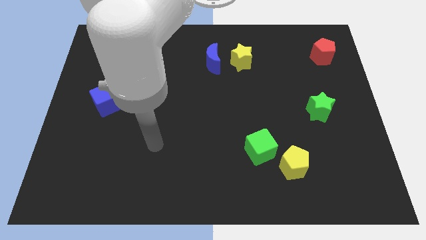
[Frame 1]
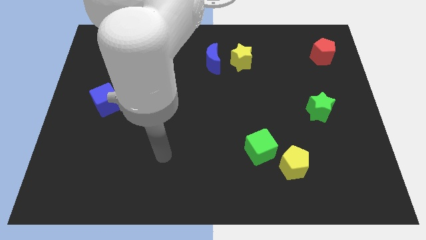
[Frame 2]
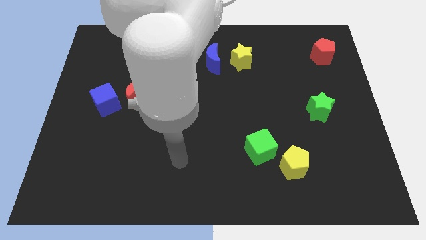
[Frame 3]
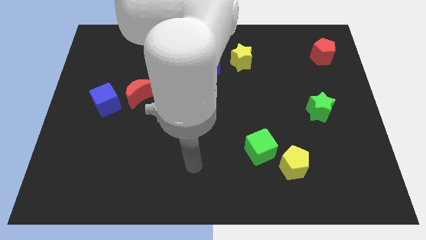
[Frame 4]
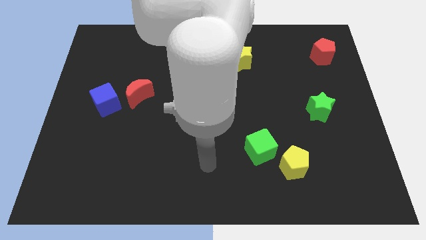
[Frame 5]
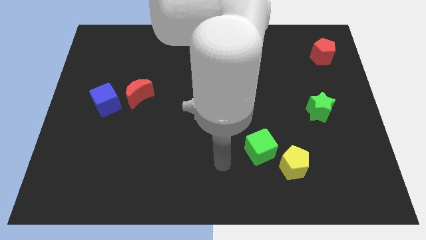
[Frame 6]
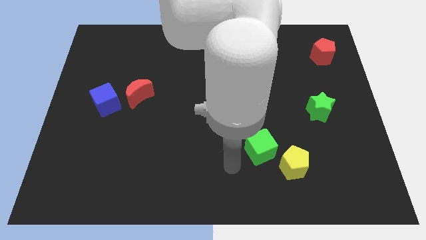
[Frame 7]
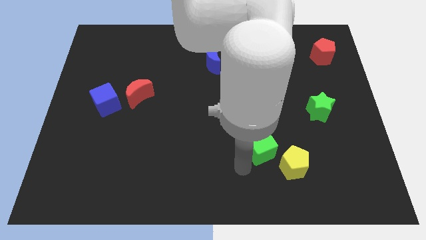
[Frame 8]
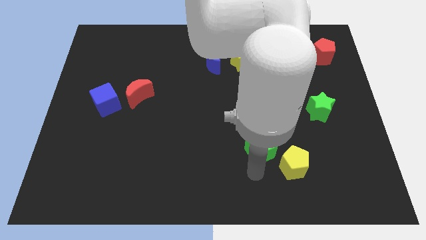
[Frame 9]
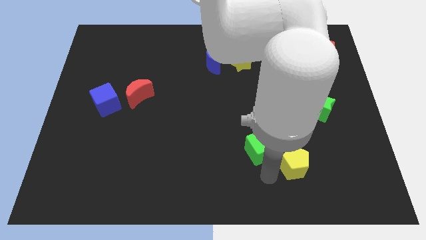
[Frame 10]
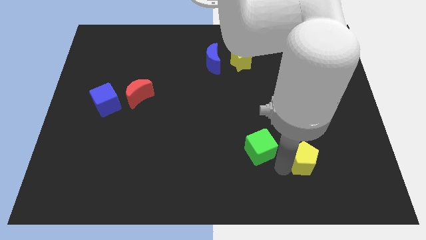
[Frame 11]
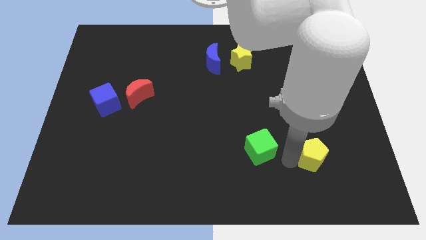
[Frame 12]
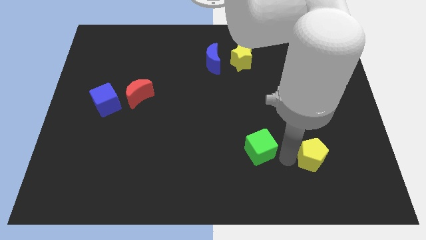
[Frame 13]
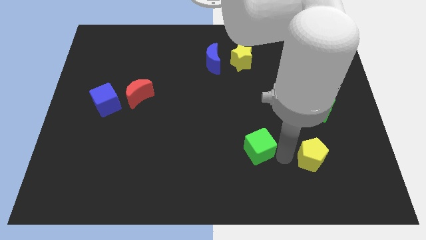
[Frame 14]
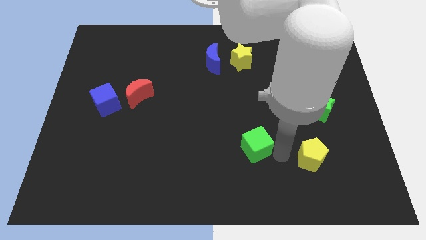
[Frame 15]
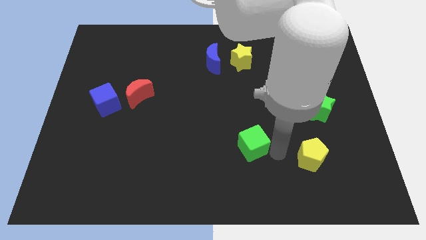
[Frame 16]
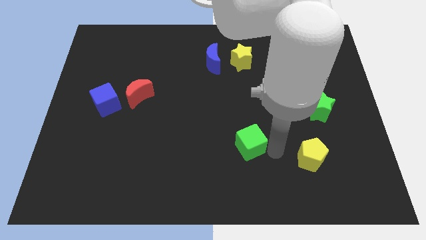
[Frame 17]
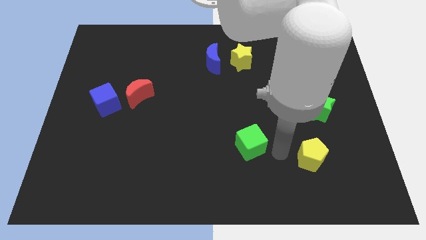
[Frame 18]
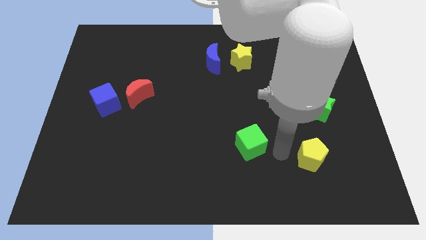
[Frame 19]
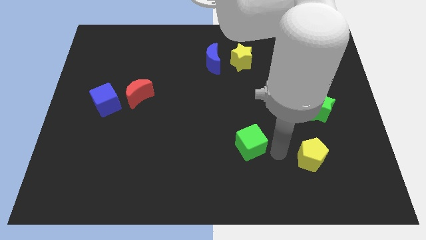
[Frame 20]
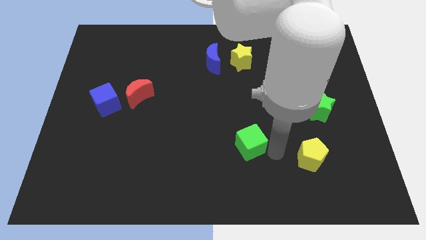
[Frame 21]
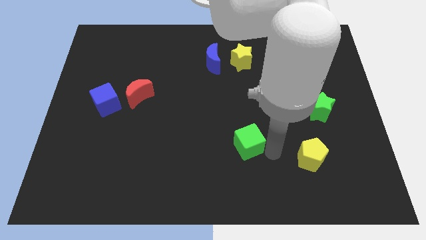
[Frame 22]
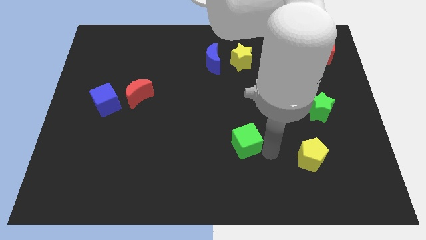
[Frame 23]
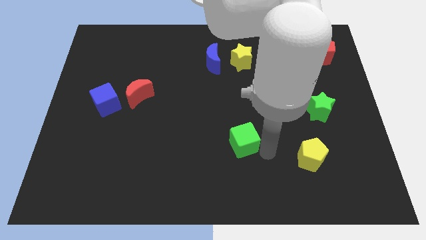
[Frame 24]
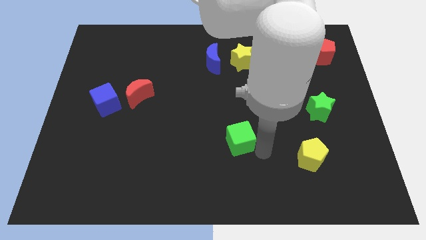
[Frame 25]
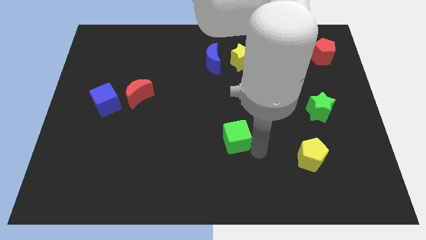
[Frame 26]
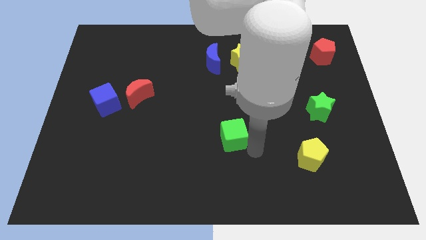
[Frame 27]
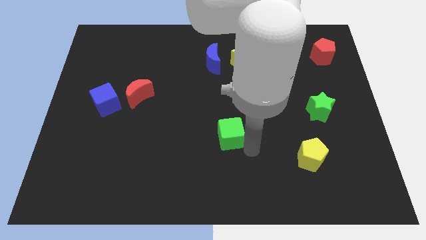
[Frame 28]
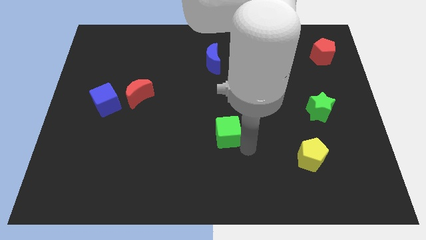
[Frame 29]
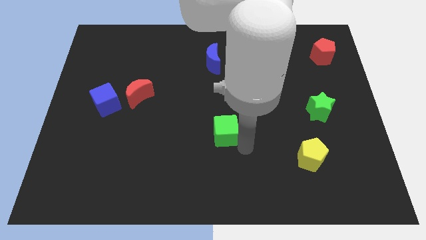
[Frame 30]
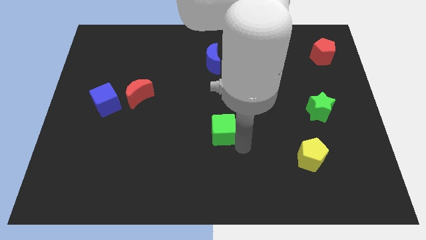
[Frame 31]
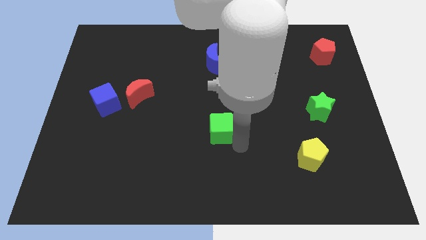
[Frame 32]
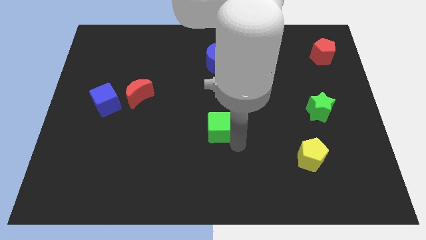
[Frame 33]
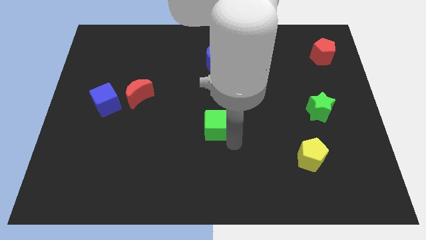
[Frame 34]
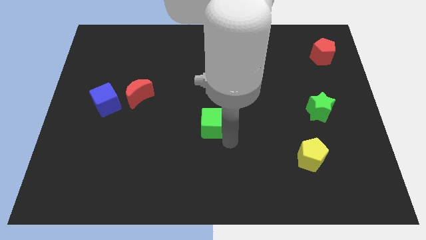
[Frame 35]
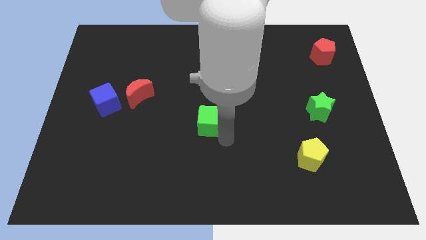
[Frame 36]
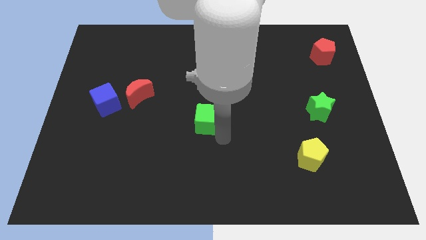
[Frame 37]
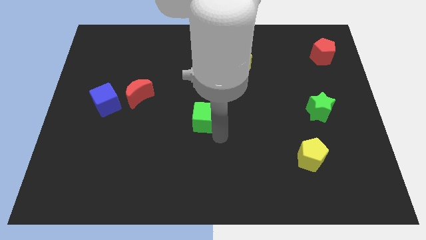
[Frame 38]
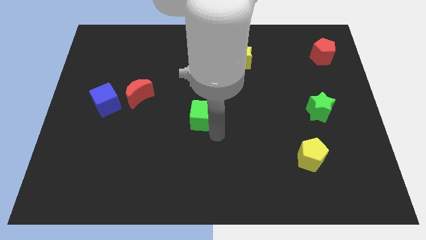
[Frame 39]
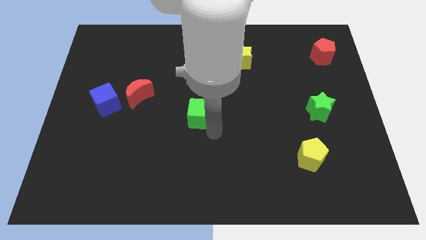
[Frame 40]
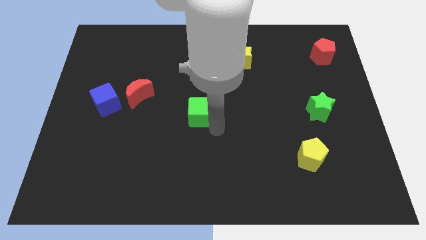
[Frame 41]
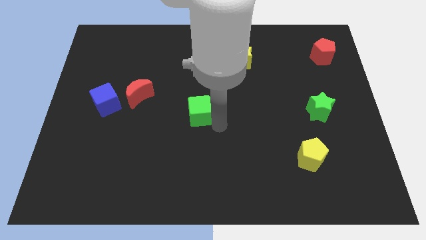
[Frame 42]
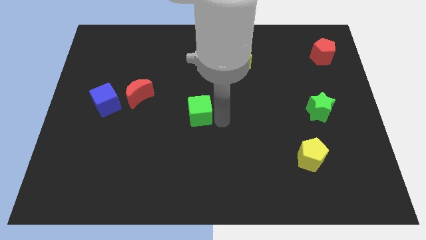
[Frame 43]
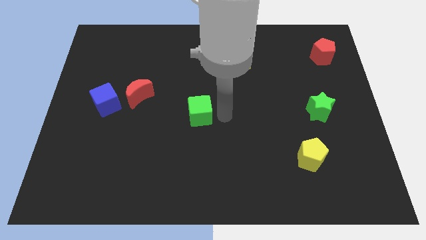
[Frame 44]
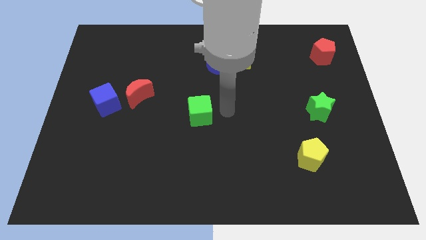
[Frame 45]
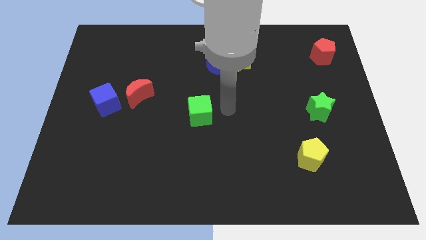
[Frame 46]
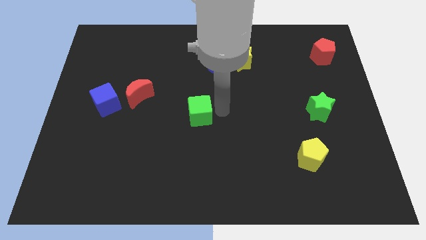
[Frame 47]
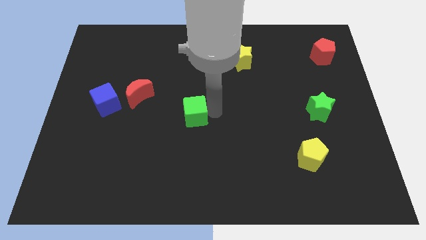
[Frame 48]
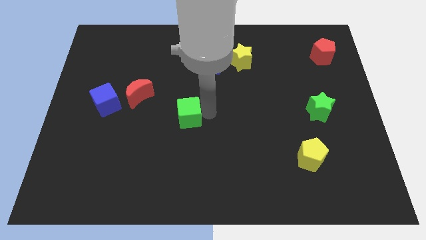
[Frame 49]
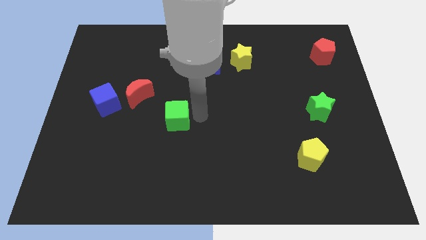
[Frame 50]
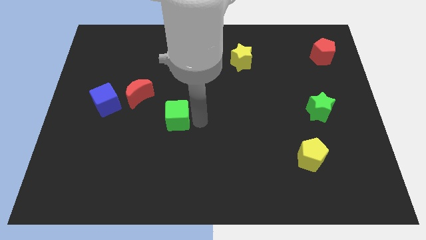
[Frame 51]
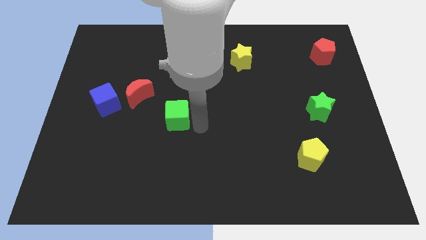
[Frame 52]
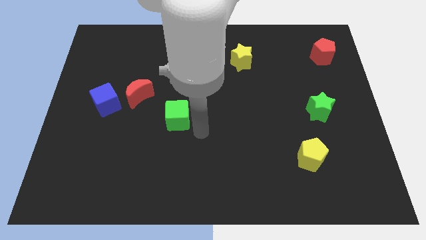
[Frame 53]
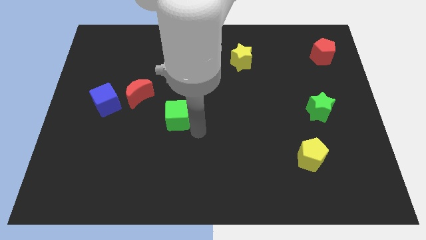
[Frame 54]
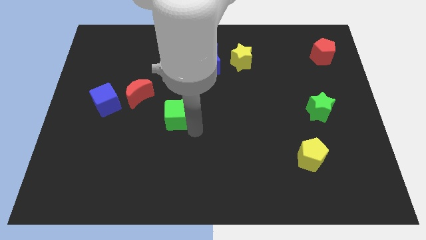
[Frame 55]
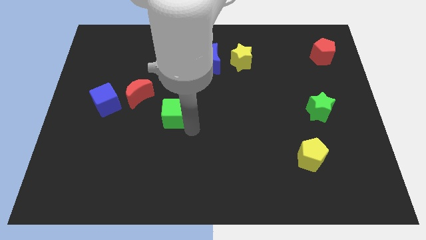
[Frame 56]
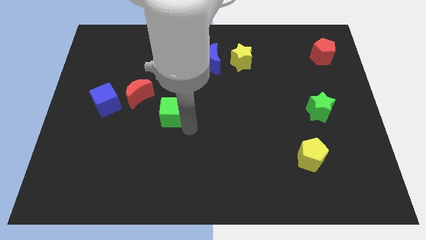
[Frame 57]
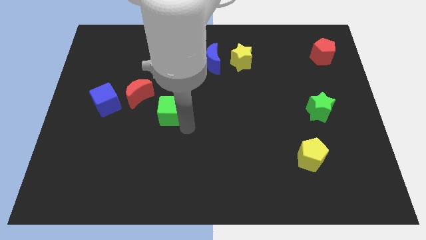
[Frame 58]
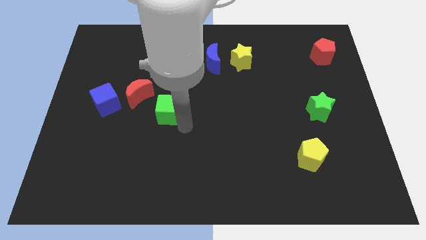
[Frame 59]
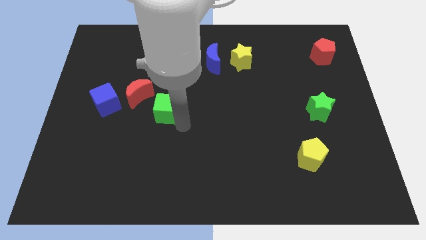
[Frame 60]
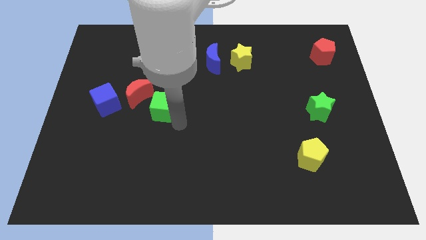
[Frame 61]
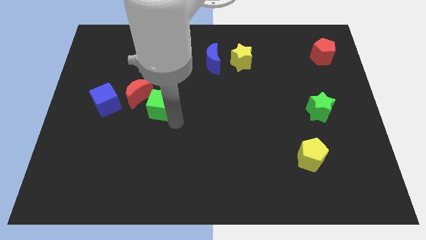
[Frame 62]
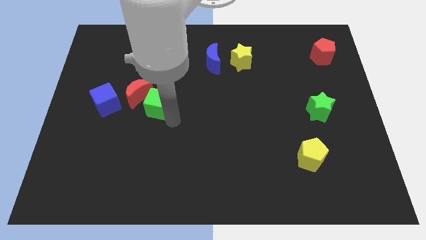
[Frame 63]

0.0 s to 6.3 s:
move the green cube next to the red moon

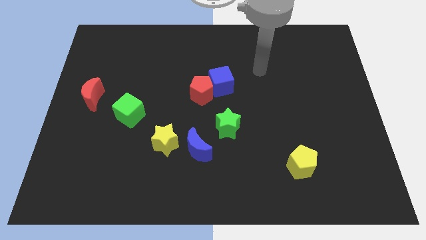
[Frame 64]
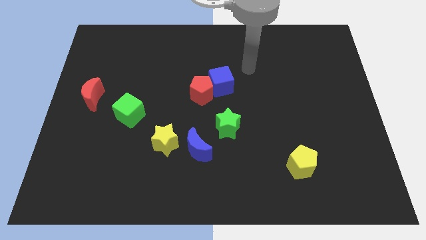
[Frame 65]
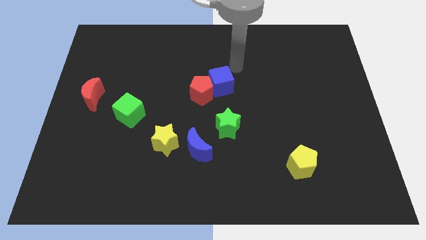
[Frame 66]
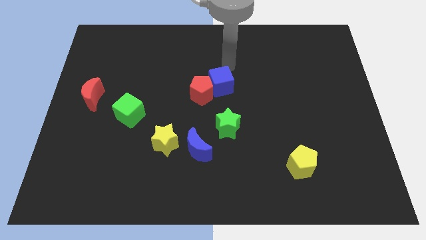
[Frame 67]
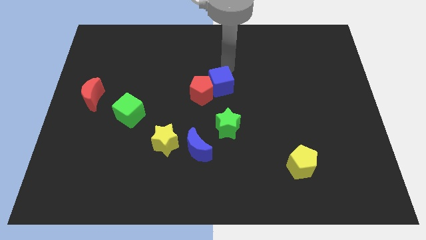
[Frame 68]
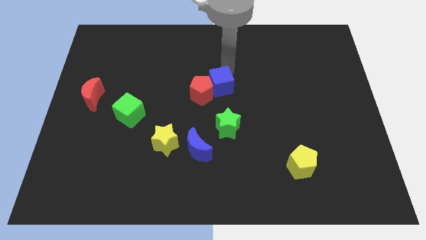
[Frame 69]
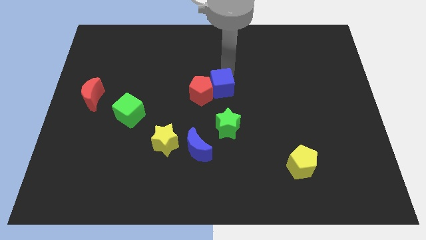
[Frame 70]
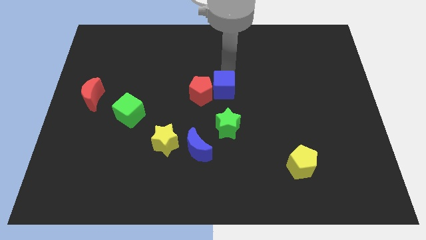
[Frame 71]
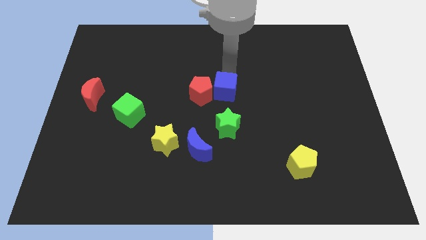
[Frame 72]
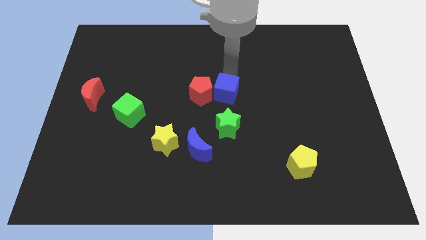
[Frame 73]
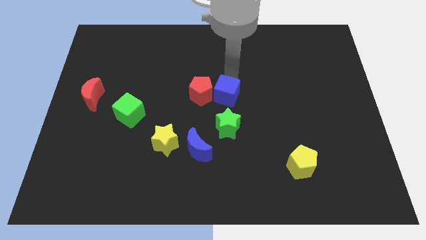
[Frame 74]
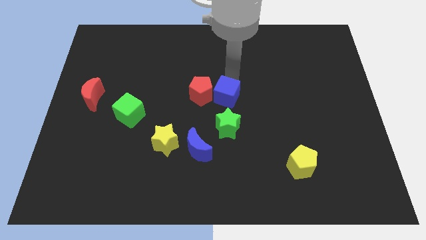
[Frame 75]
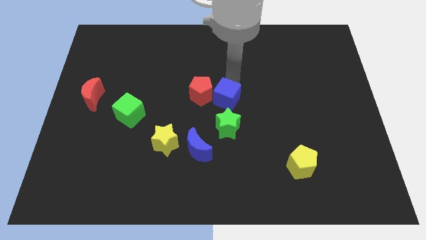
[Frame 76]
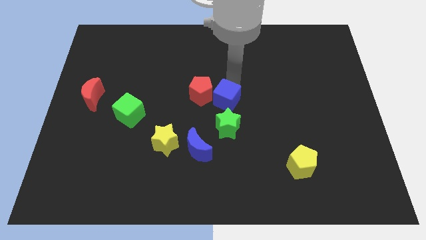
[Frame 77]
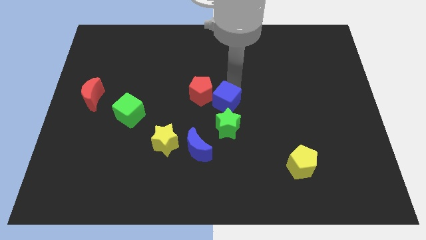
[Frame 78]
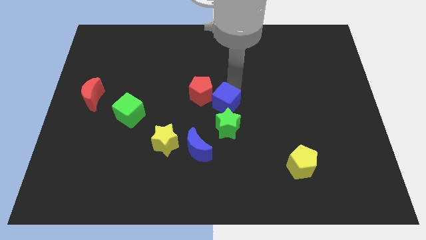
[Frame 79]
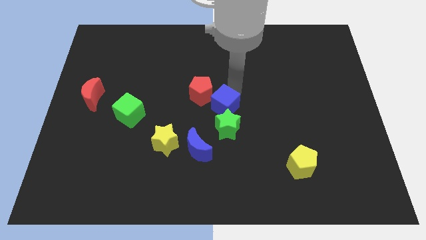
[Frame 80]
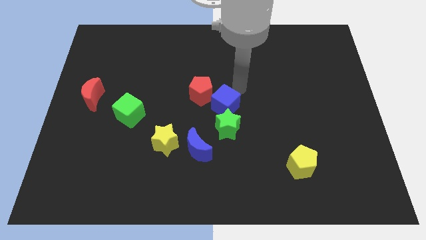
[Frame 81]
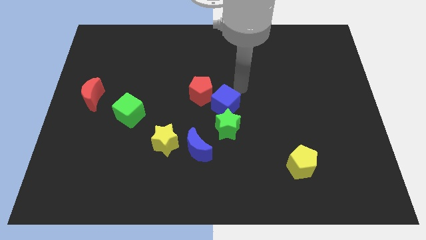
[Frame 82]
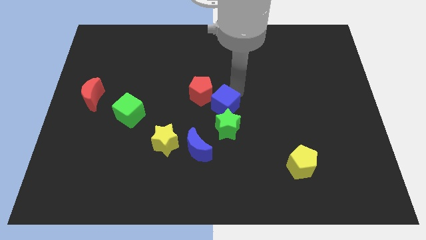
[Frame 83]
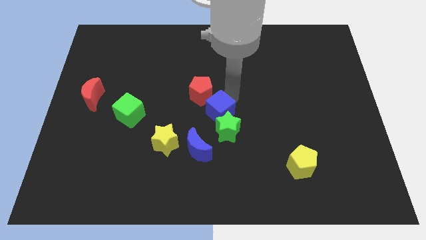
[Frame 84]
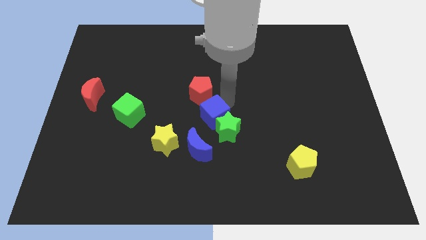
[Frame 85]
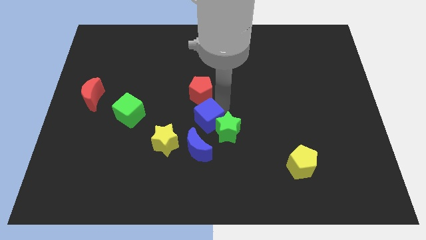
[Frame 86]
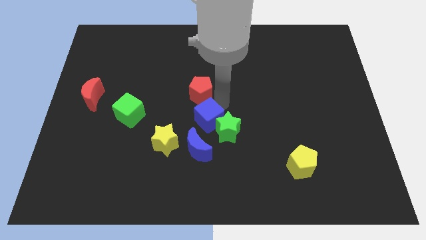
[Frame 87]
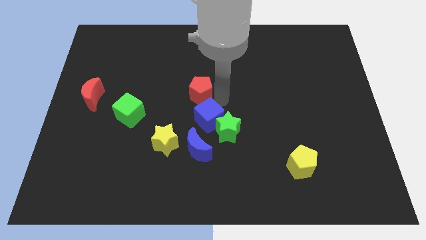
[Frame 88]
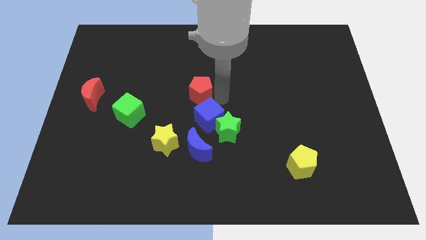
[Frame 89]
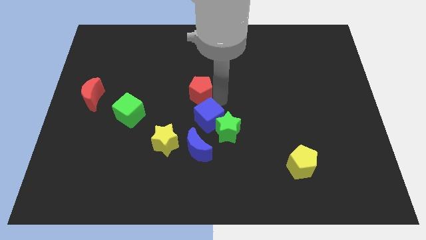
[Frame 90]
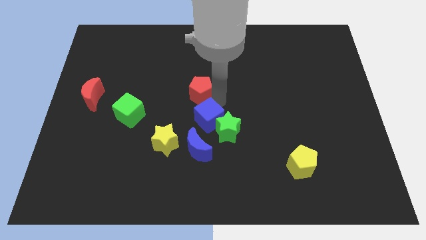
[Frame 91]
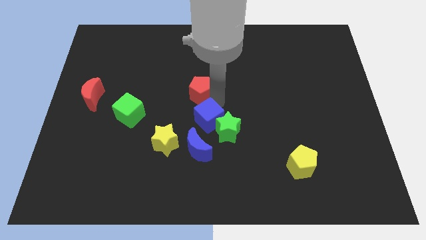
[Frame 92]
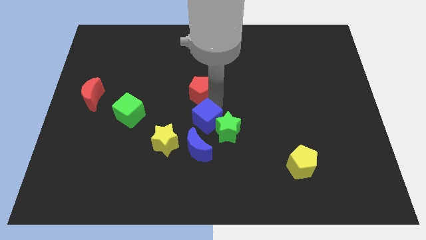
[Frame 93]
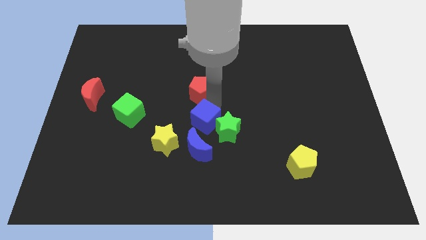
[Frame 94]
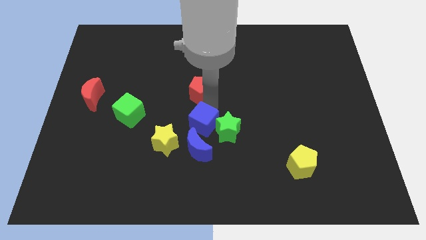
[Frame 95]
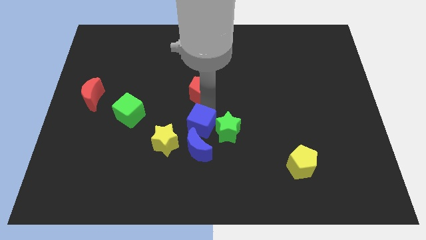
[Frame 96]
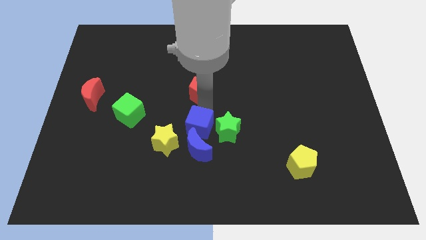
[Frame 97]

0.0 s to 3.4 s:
move the blue cube towards the blue moon
